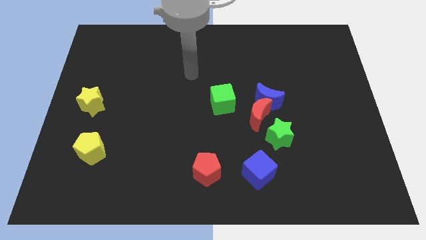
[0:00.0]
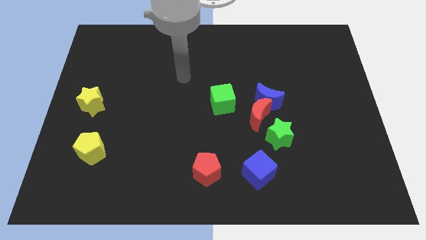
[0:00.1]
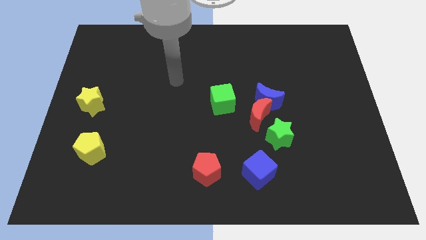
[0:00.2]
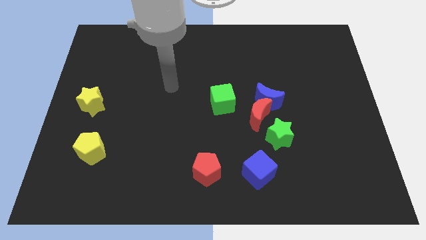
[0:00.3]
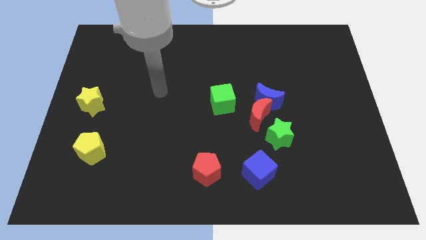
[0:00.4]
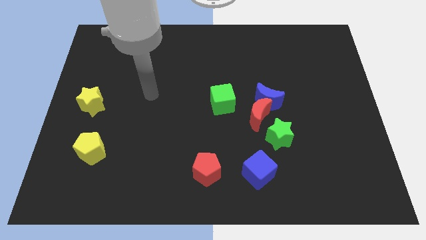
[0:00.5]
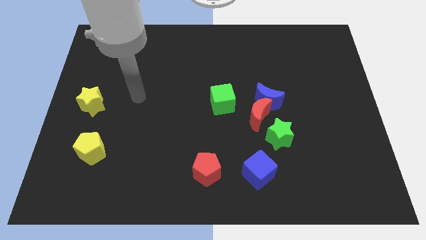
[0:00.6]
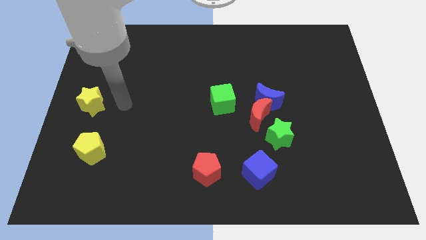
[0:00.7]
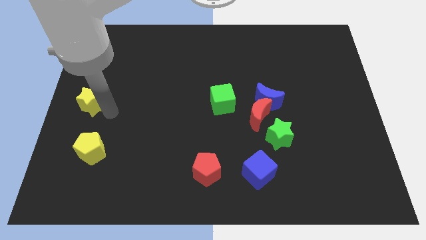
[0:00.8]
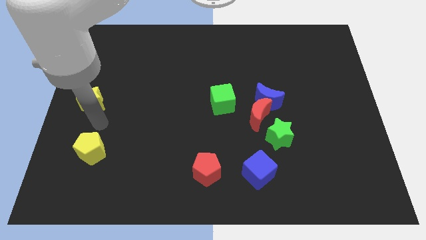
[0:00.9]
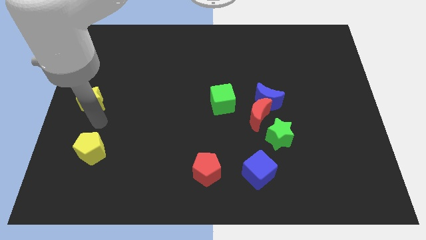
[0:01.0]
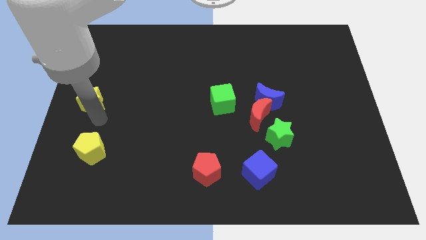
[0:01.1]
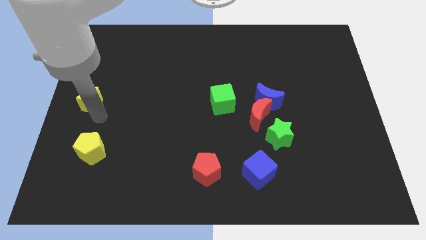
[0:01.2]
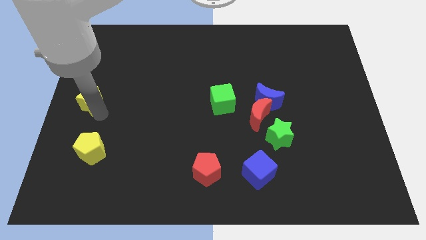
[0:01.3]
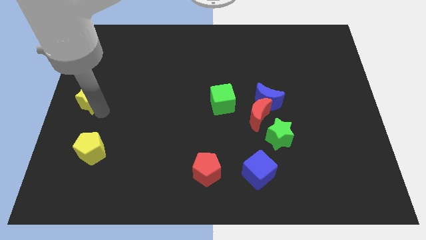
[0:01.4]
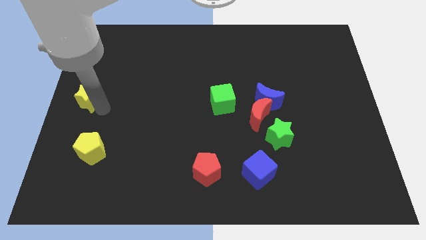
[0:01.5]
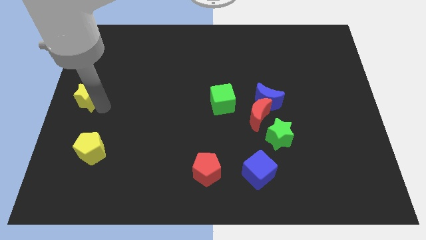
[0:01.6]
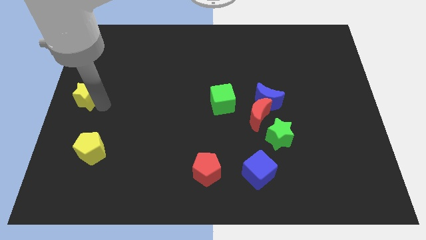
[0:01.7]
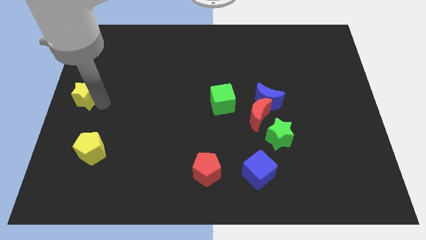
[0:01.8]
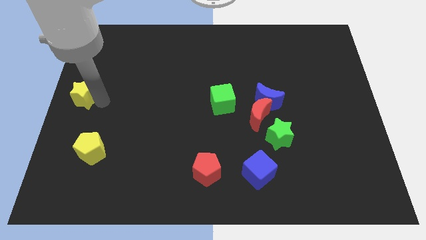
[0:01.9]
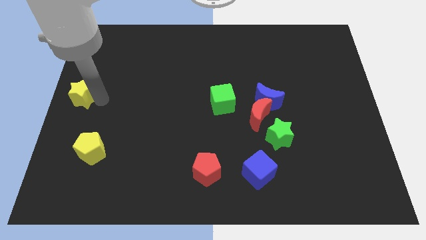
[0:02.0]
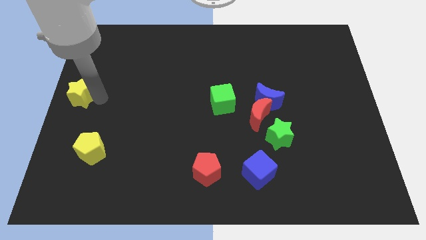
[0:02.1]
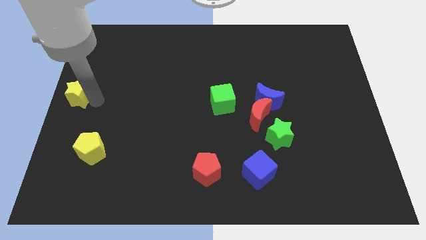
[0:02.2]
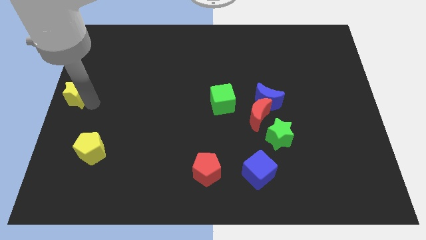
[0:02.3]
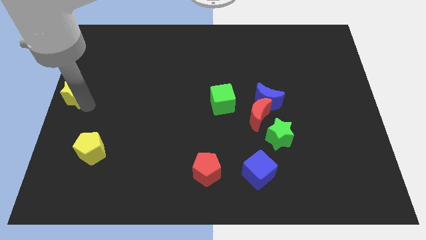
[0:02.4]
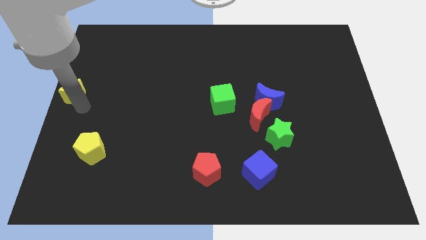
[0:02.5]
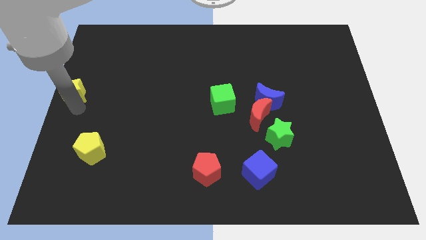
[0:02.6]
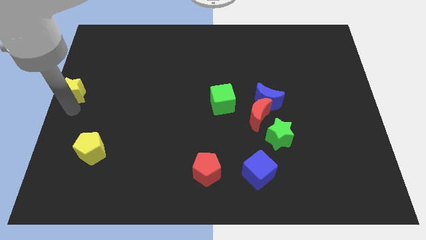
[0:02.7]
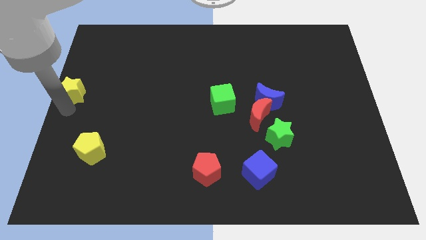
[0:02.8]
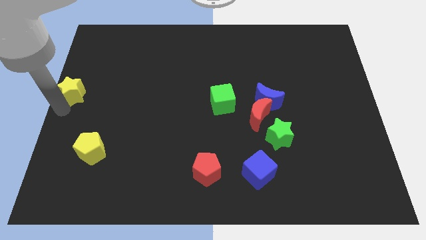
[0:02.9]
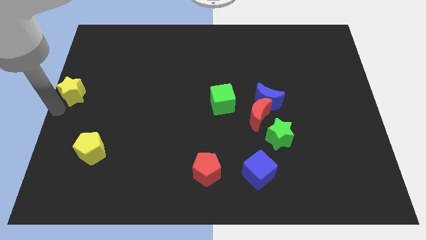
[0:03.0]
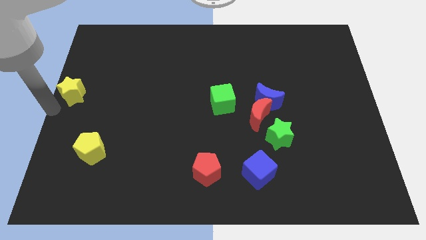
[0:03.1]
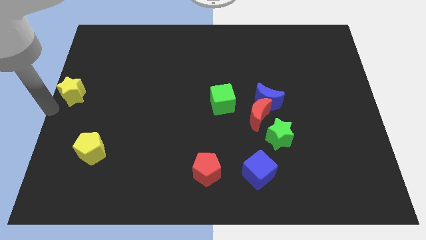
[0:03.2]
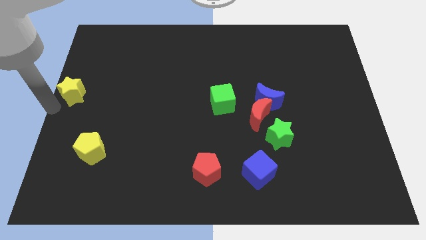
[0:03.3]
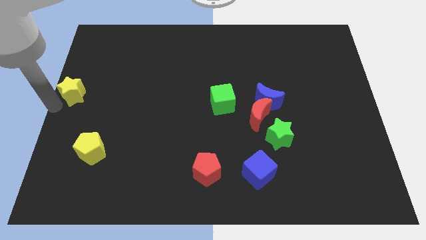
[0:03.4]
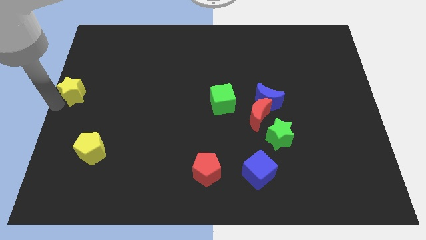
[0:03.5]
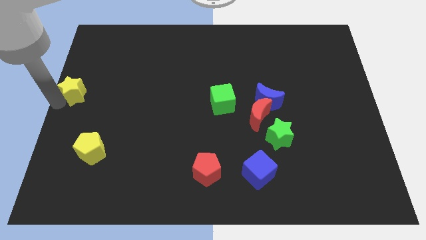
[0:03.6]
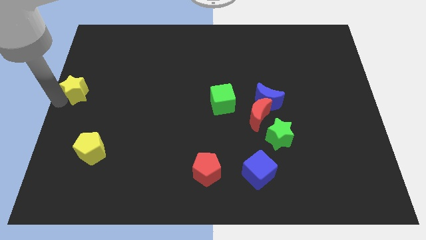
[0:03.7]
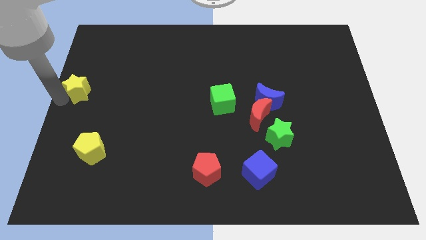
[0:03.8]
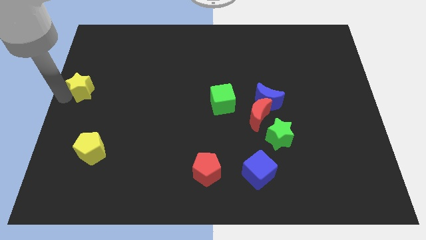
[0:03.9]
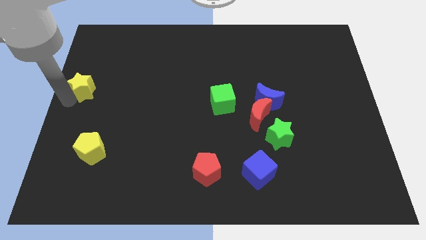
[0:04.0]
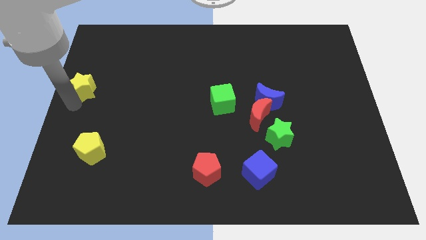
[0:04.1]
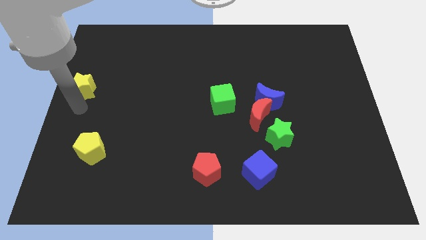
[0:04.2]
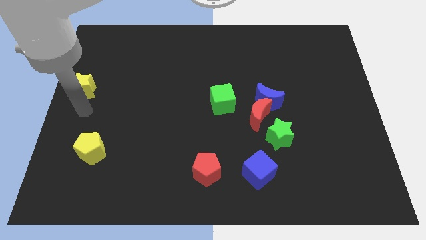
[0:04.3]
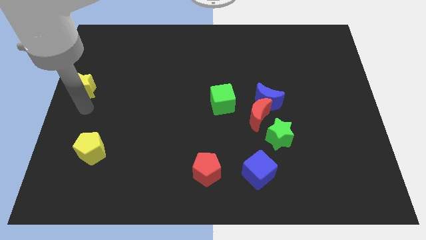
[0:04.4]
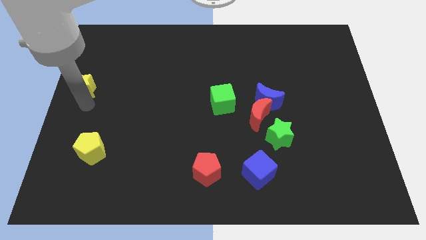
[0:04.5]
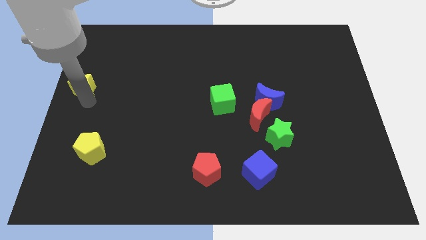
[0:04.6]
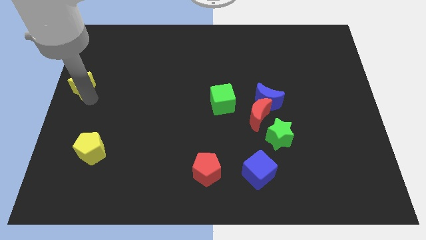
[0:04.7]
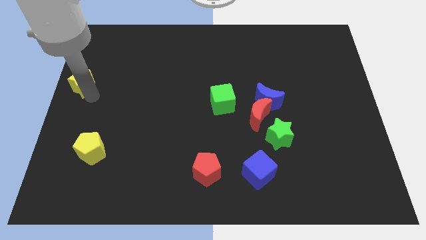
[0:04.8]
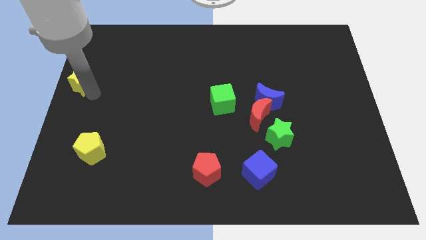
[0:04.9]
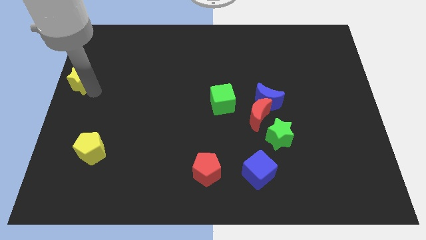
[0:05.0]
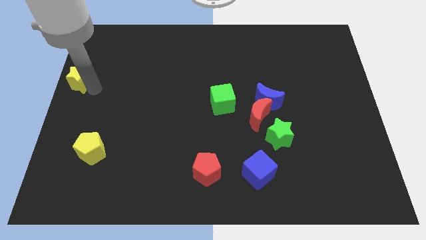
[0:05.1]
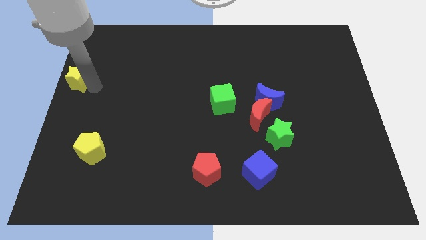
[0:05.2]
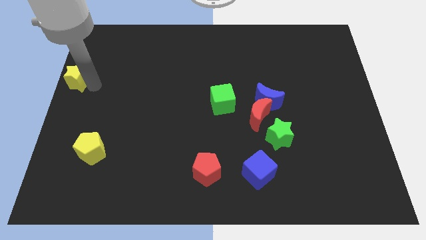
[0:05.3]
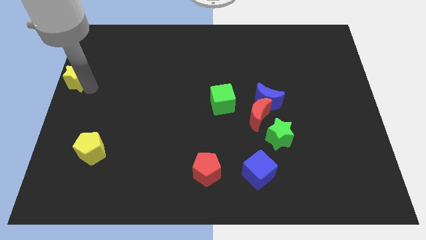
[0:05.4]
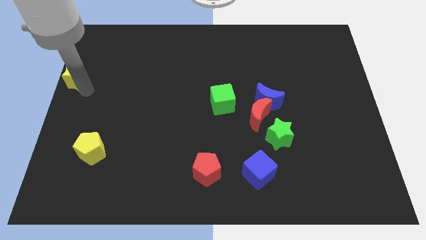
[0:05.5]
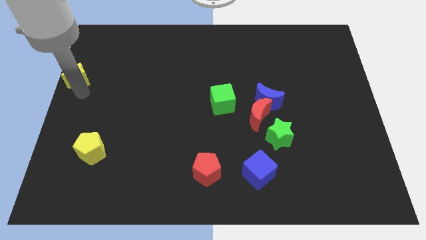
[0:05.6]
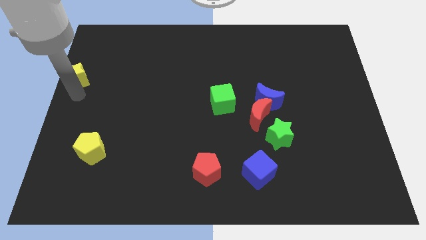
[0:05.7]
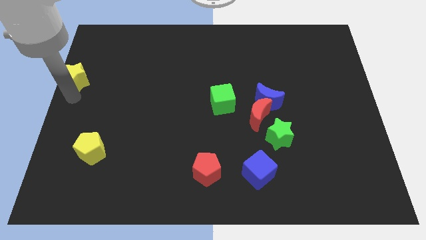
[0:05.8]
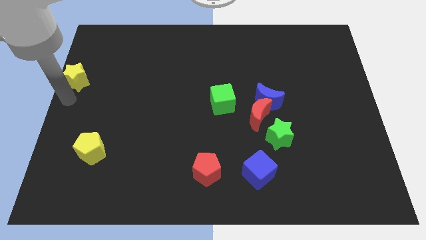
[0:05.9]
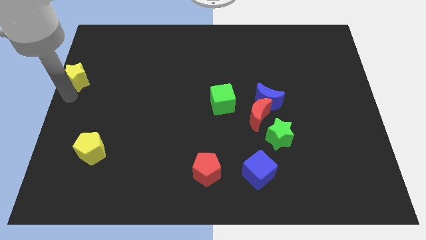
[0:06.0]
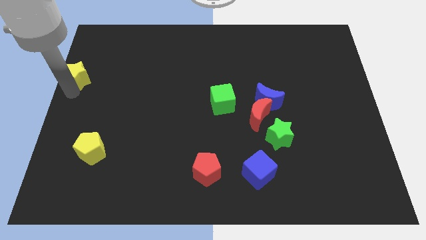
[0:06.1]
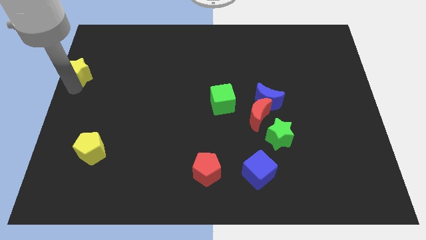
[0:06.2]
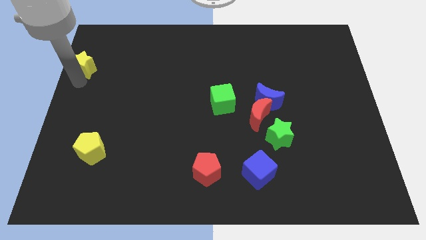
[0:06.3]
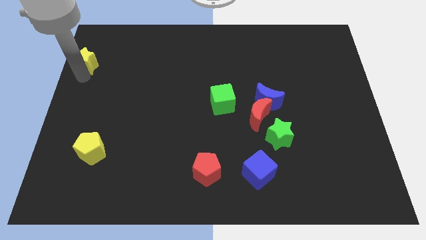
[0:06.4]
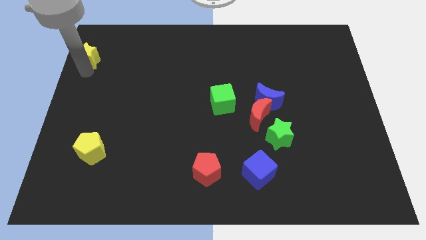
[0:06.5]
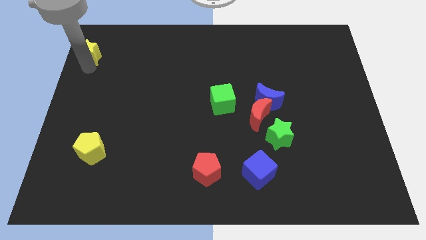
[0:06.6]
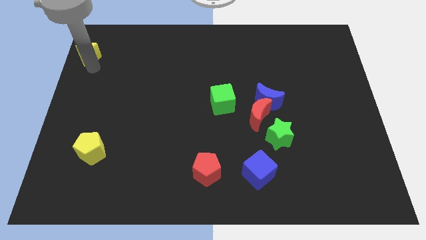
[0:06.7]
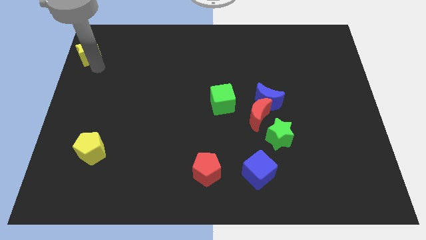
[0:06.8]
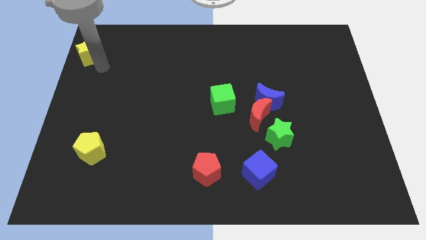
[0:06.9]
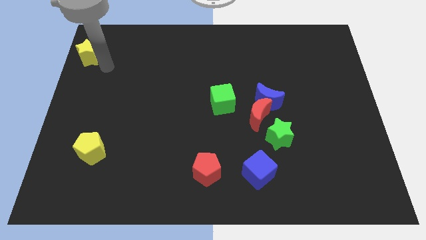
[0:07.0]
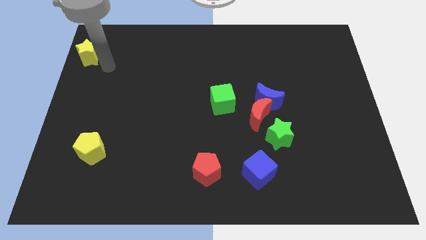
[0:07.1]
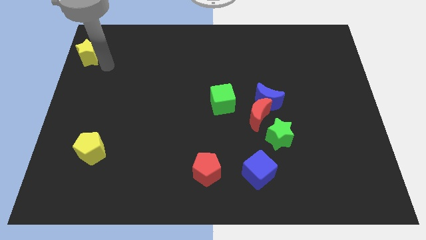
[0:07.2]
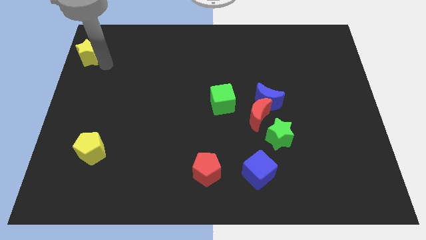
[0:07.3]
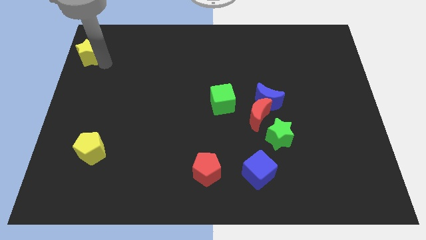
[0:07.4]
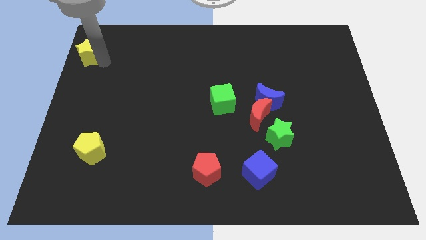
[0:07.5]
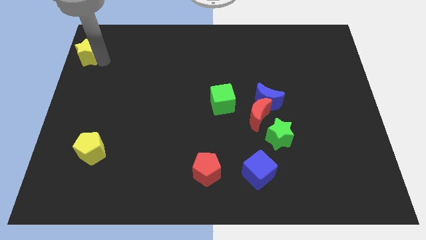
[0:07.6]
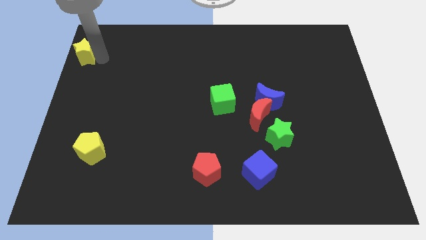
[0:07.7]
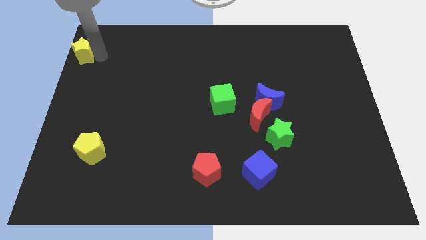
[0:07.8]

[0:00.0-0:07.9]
move the yellow star to the top left of the board
